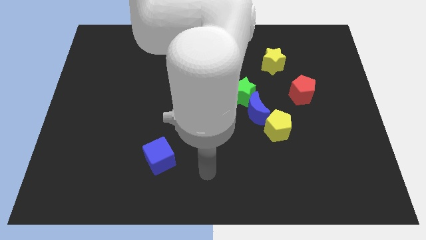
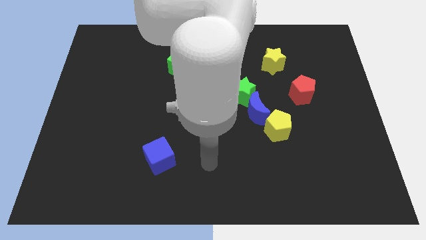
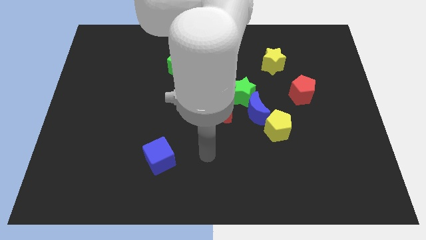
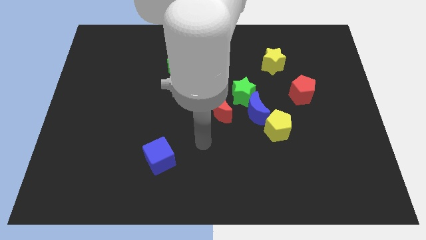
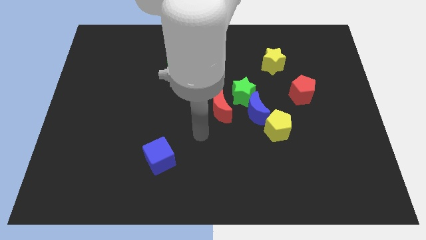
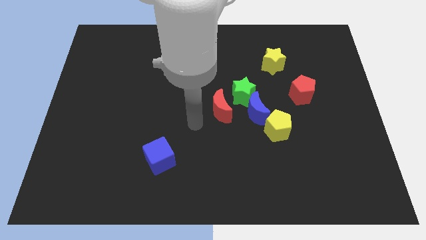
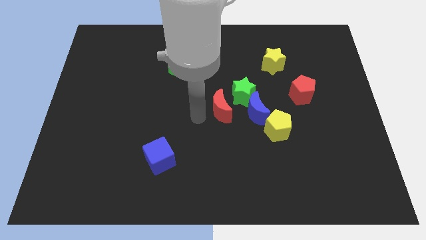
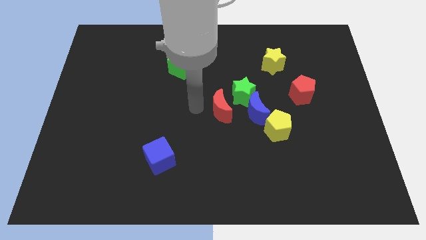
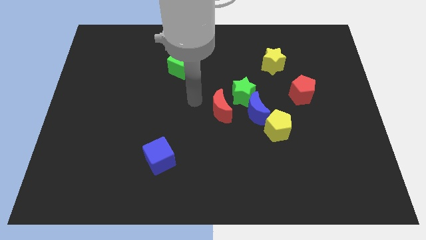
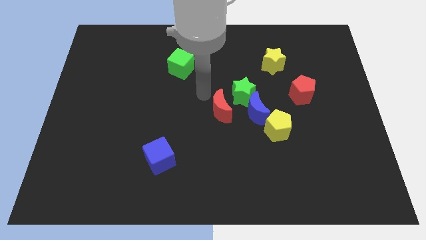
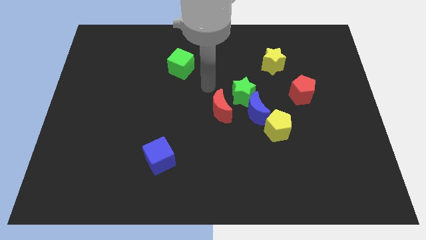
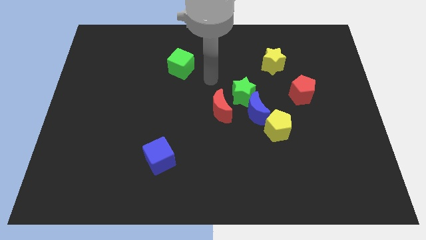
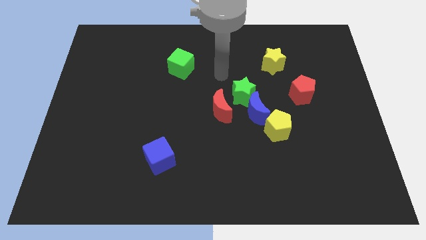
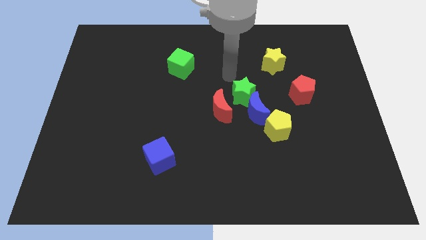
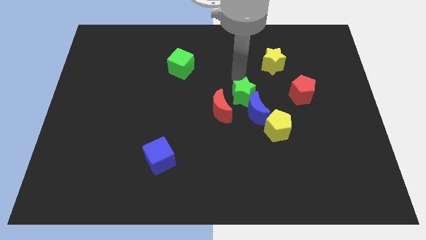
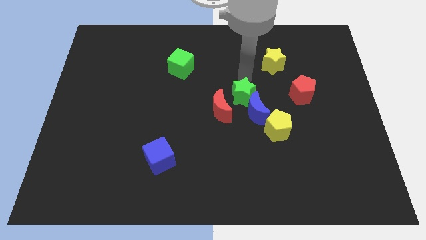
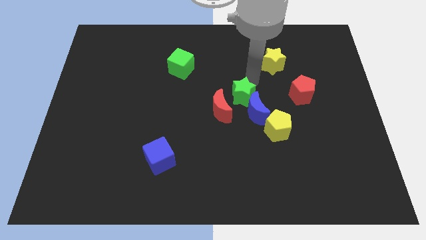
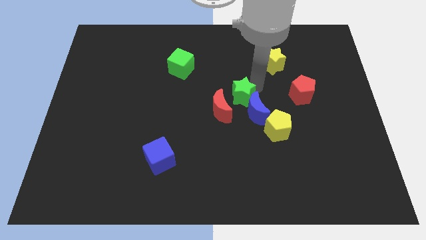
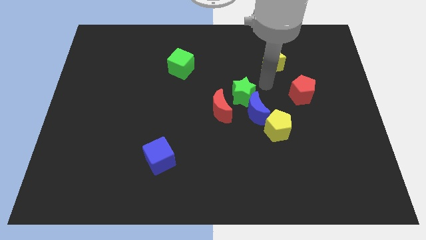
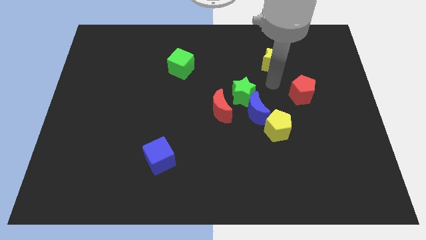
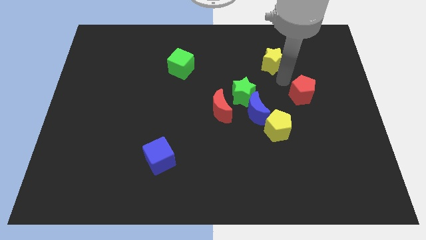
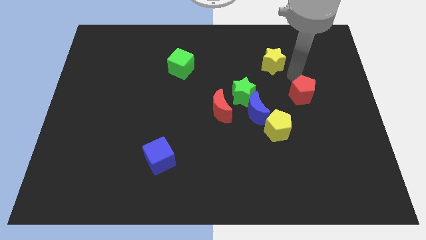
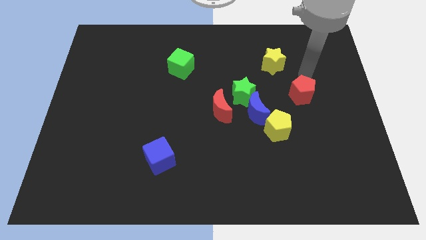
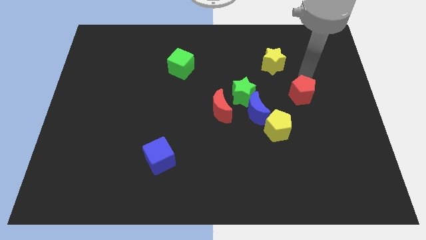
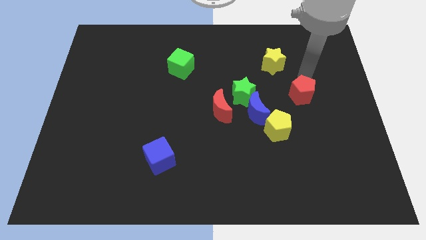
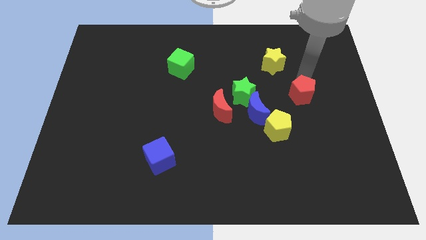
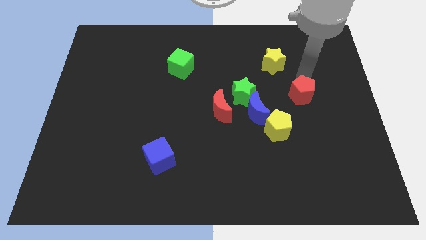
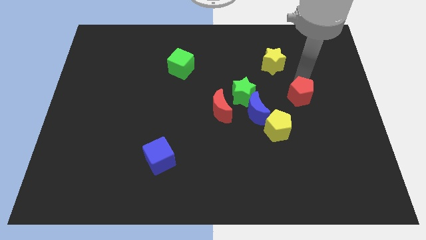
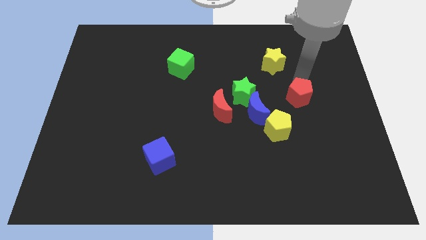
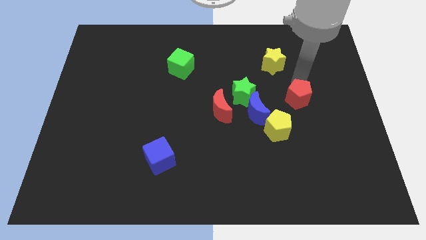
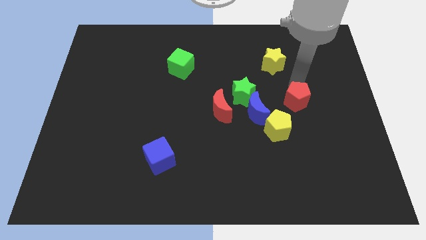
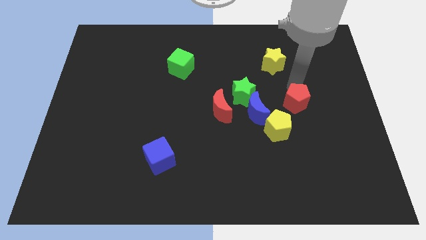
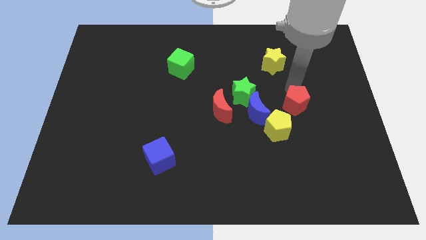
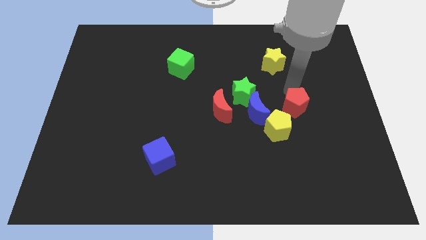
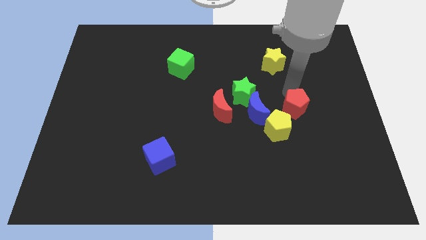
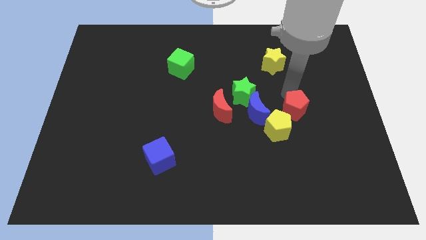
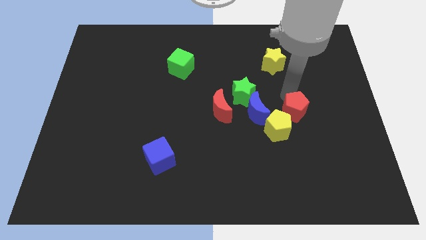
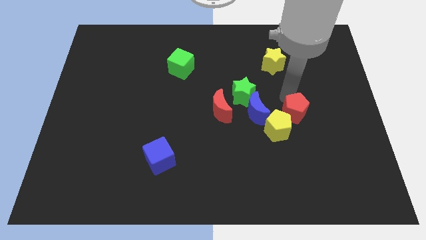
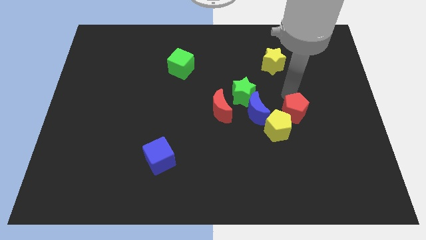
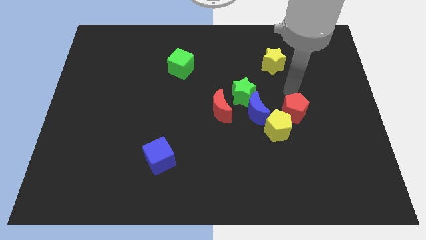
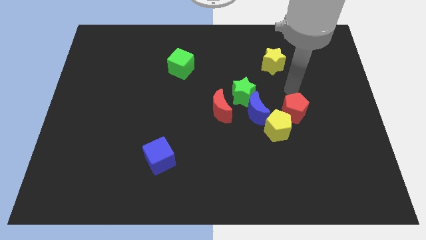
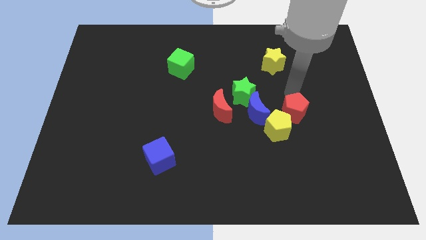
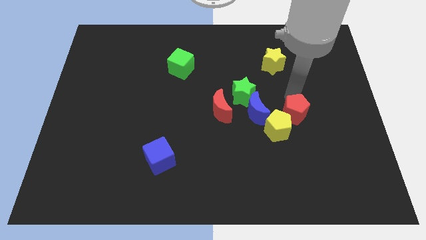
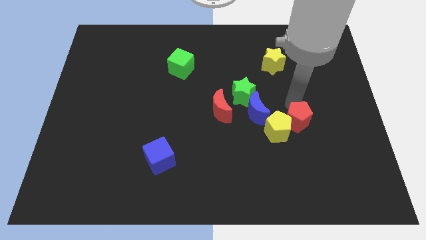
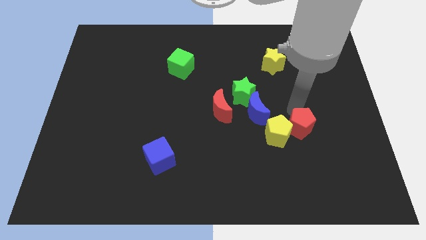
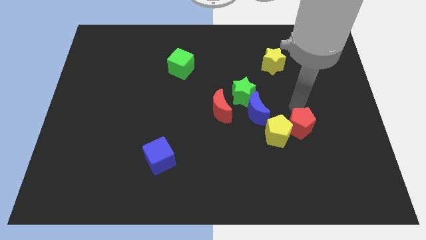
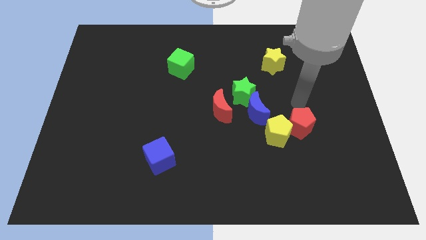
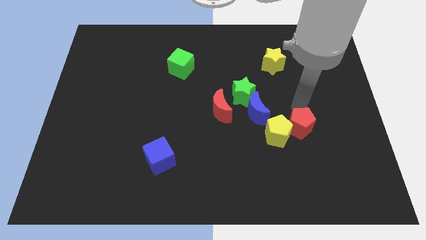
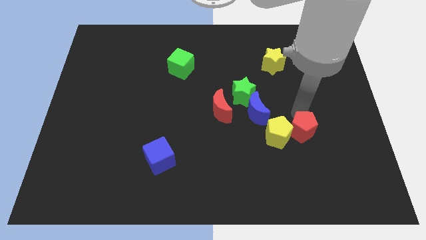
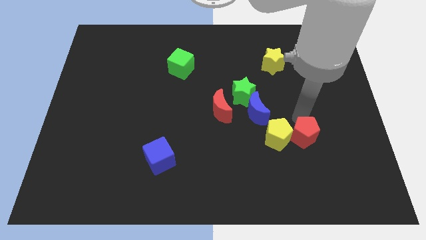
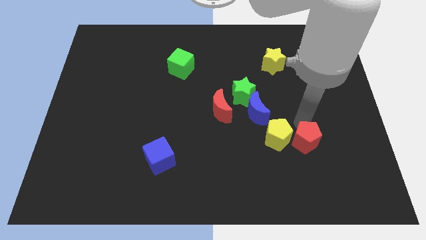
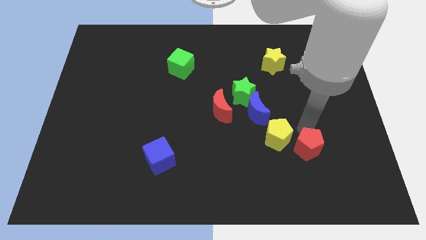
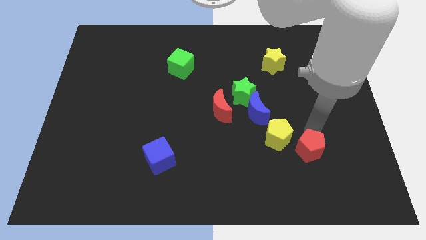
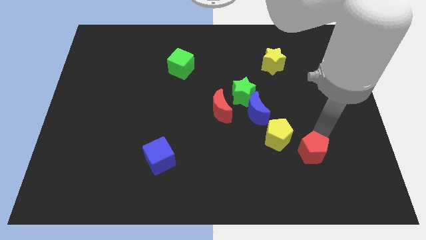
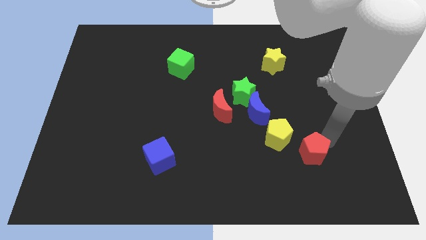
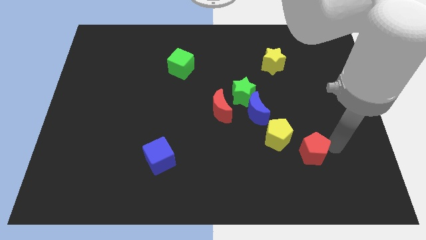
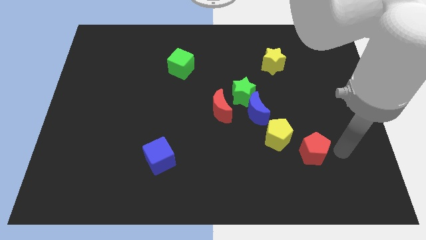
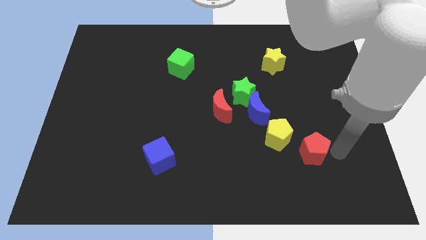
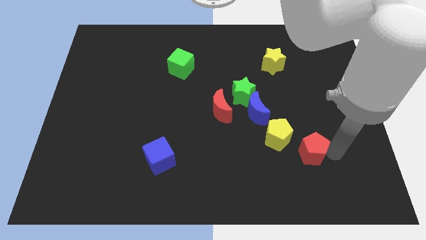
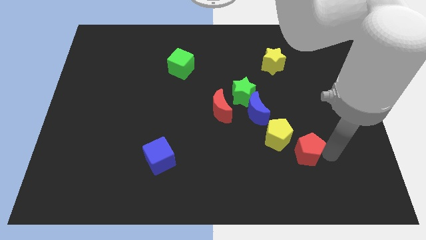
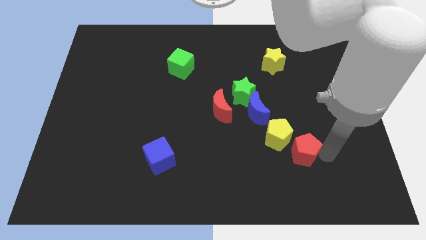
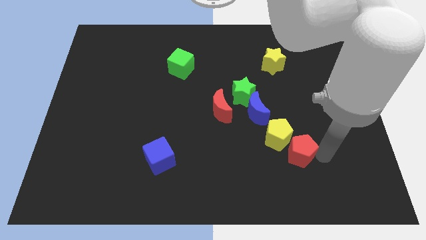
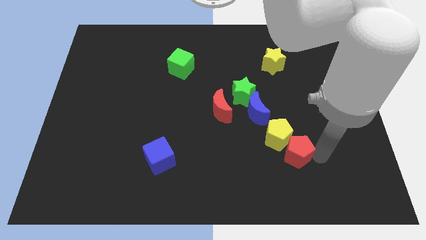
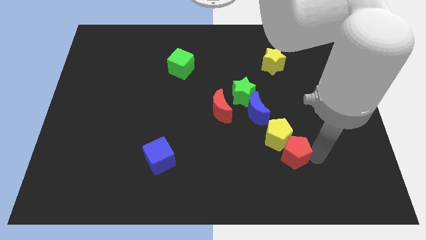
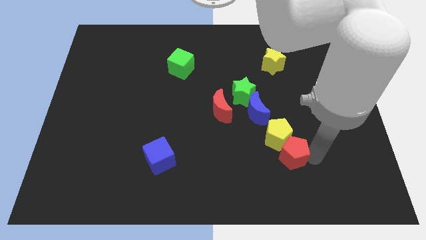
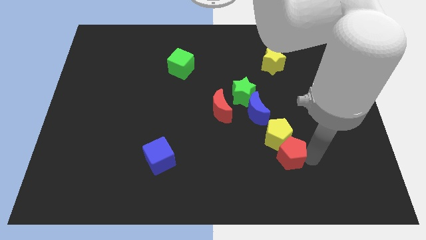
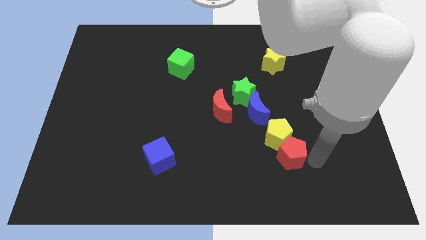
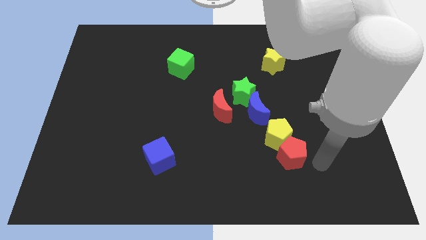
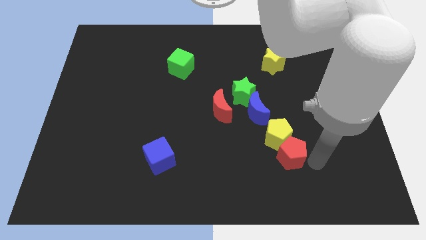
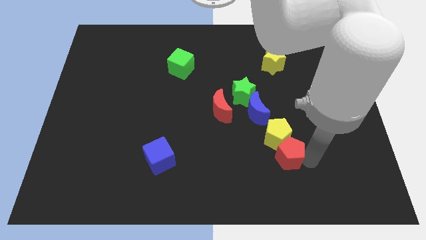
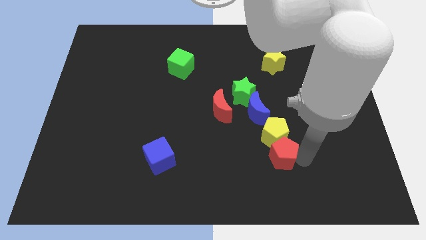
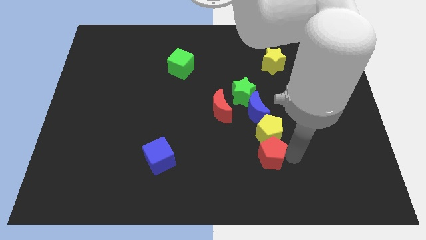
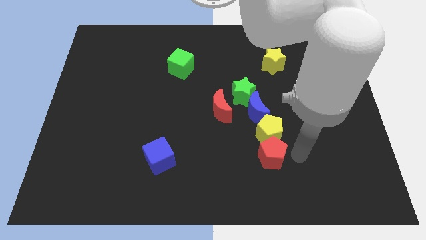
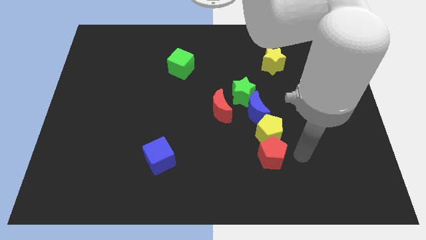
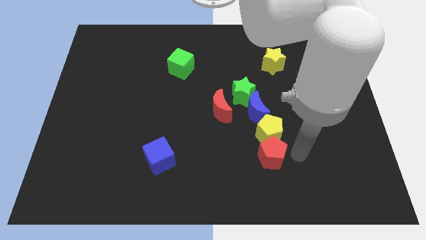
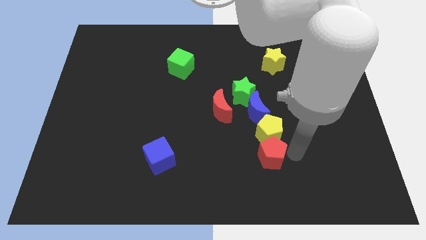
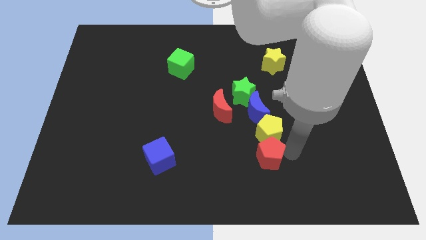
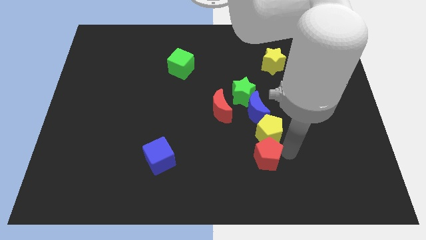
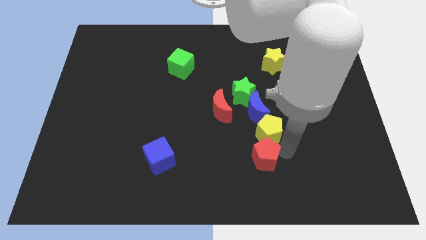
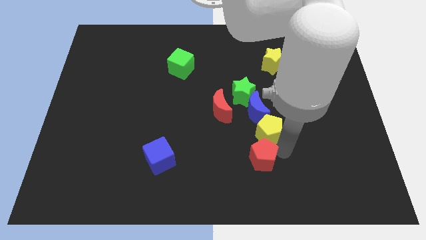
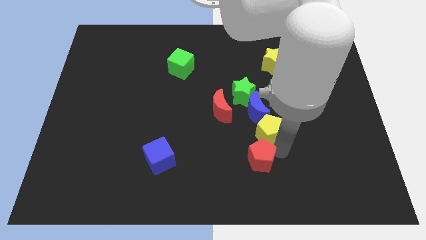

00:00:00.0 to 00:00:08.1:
move the red pentagon down and to the left diagonally

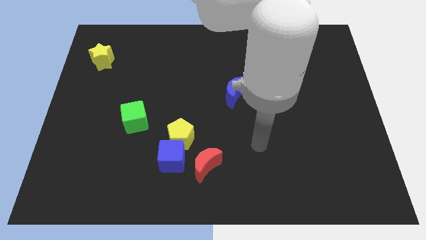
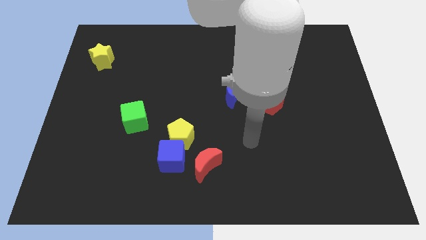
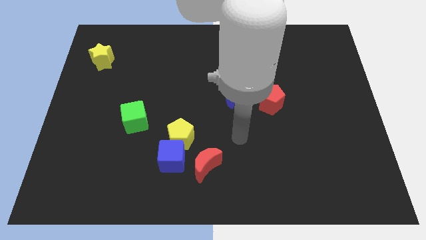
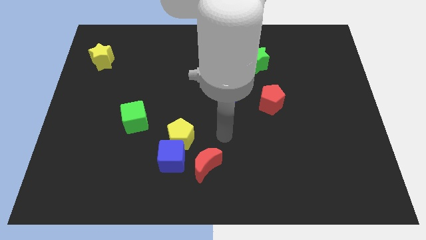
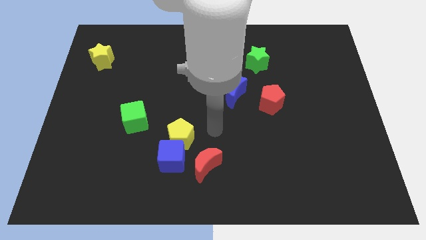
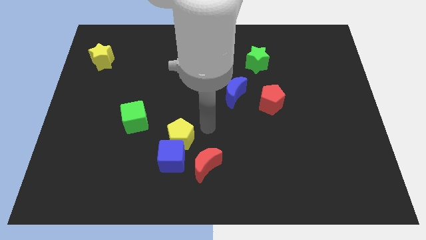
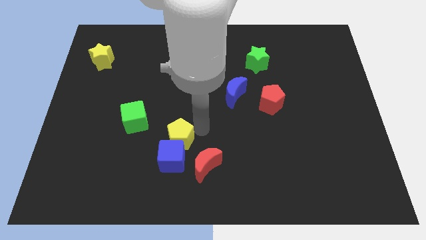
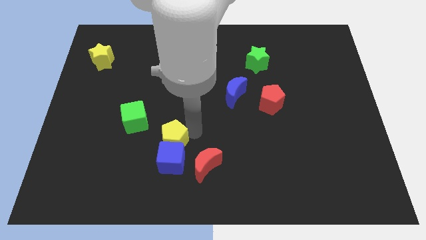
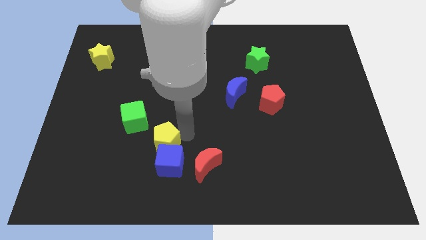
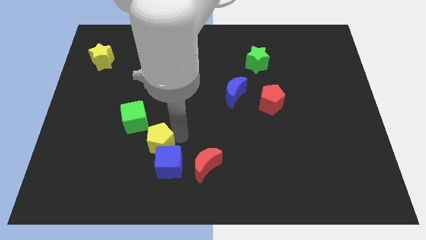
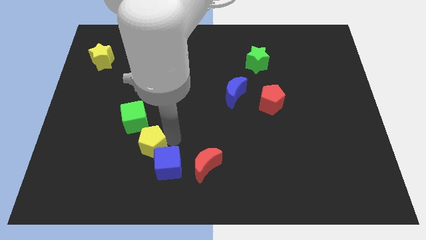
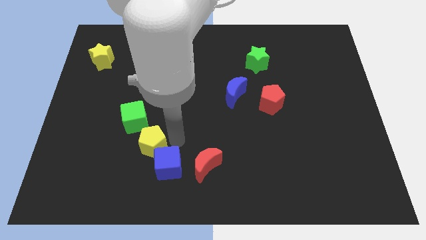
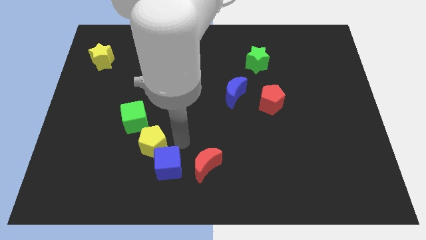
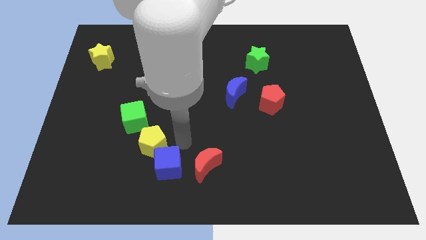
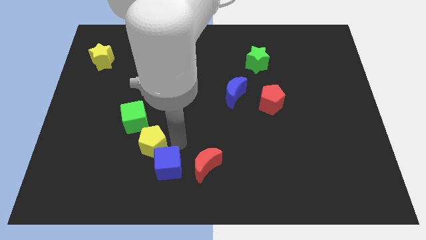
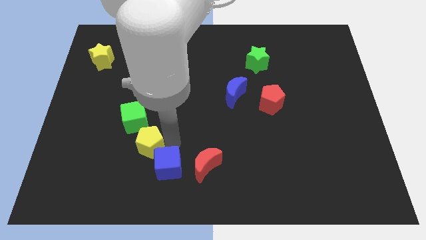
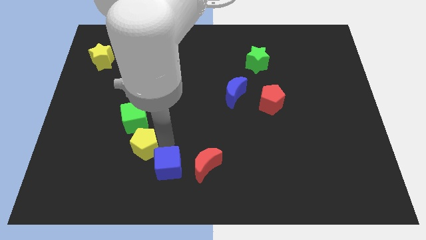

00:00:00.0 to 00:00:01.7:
slide the yellow pentagon somewhat to the left
